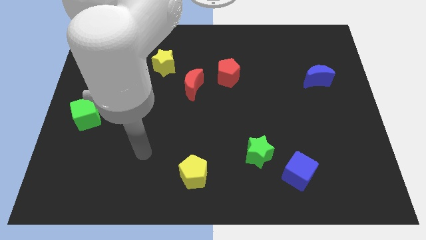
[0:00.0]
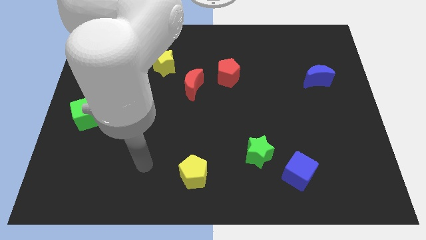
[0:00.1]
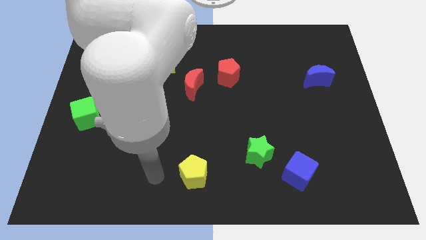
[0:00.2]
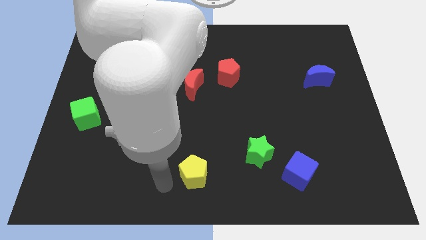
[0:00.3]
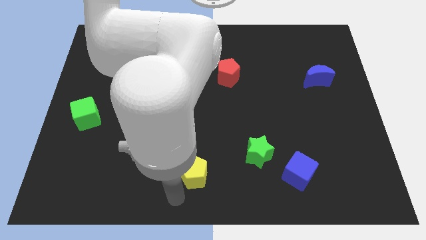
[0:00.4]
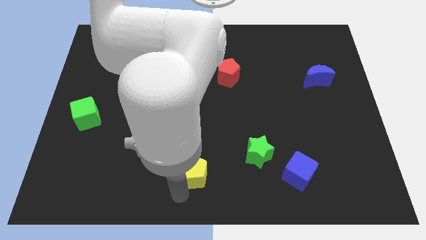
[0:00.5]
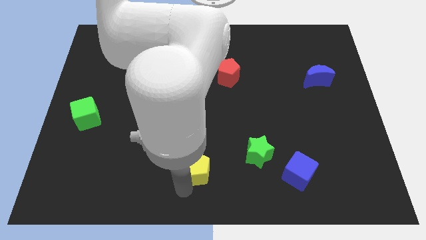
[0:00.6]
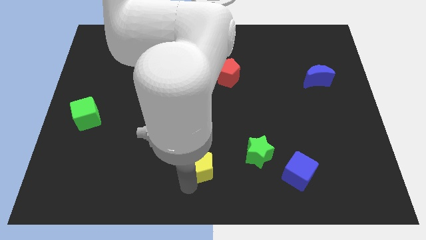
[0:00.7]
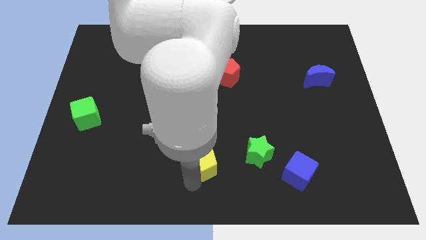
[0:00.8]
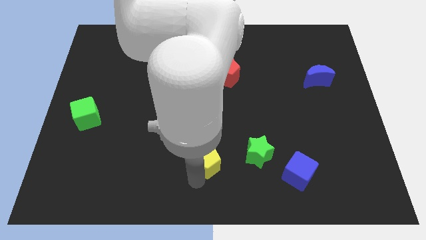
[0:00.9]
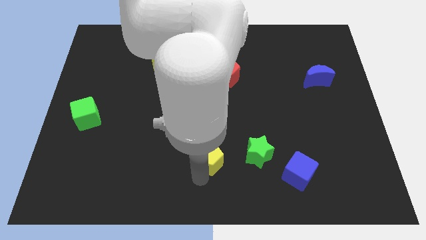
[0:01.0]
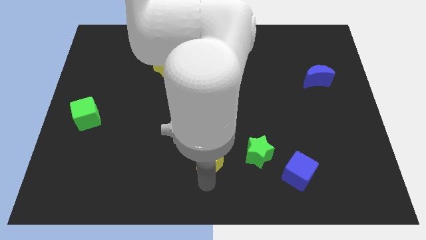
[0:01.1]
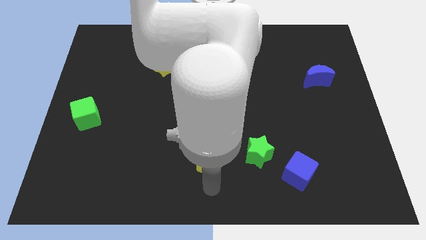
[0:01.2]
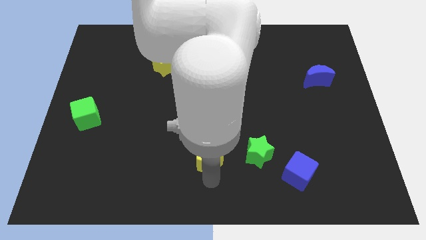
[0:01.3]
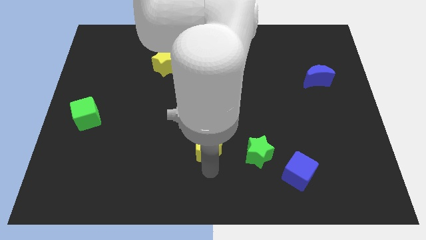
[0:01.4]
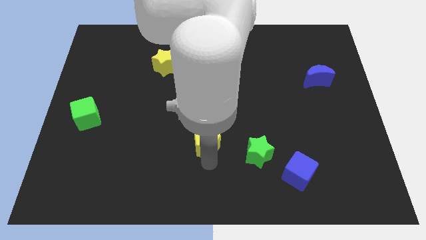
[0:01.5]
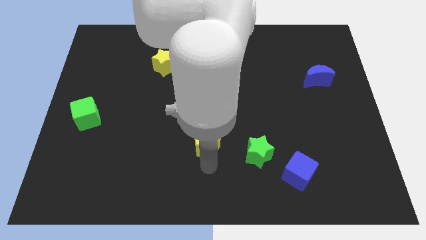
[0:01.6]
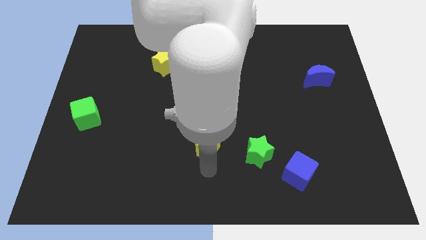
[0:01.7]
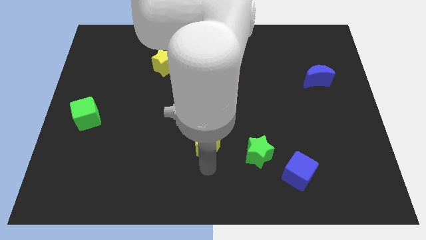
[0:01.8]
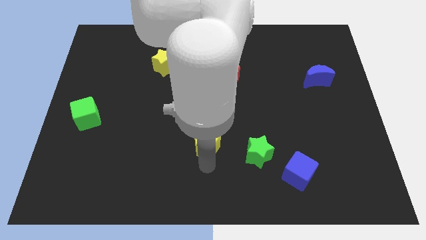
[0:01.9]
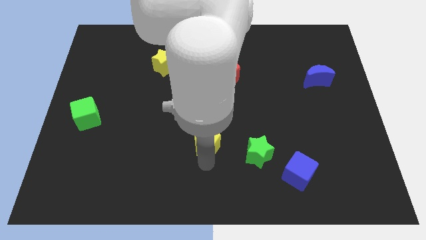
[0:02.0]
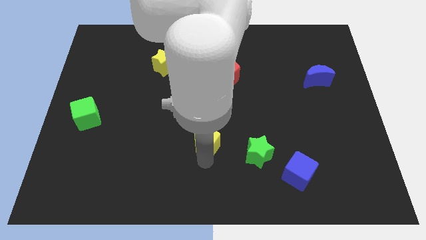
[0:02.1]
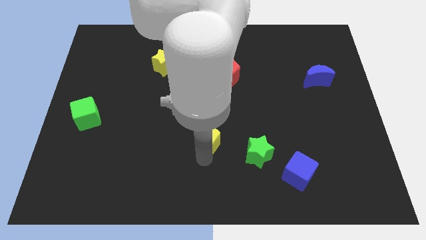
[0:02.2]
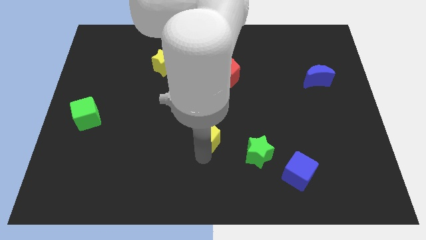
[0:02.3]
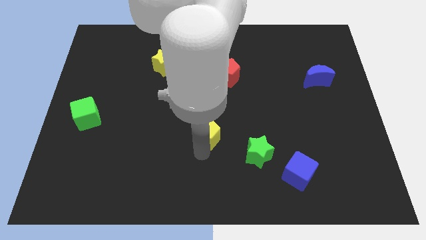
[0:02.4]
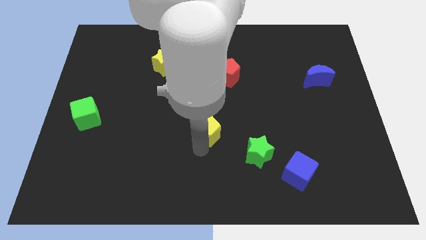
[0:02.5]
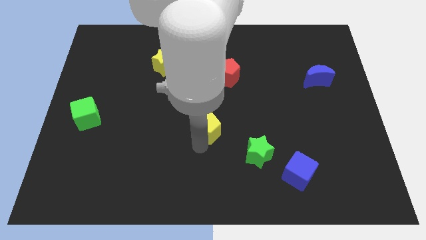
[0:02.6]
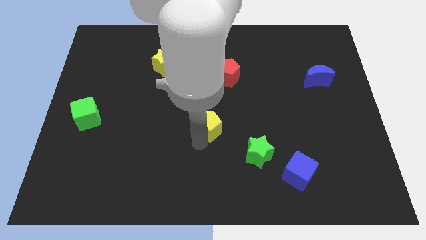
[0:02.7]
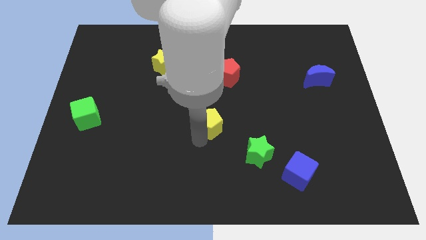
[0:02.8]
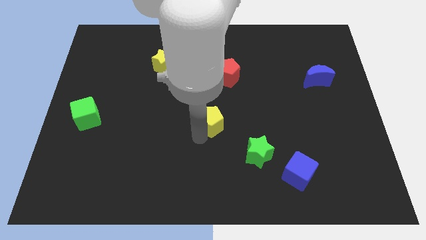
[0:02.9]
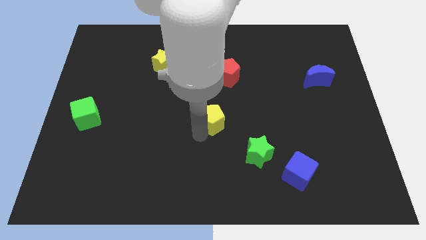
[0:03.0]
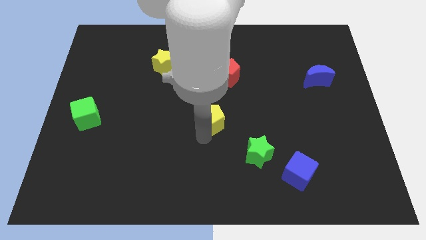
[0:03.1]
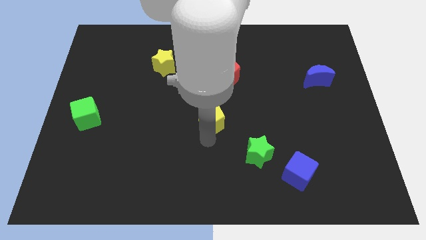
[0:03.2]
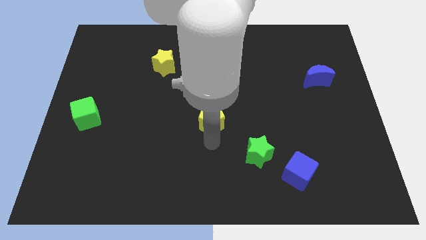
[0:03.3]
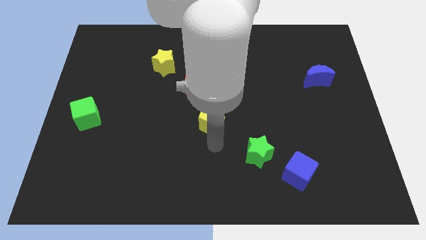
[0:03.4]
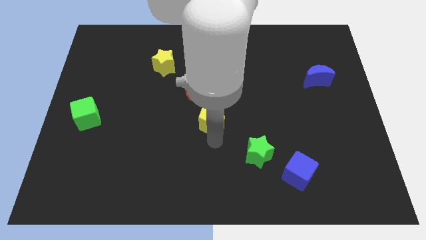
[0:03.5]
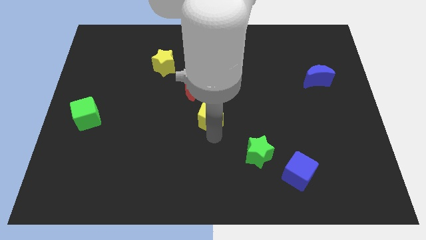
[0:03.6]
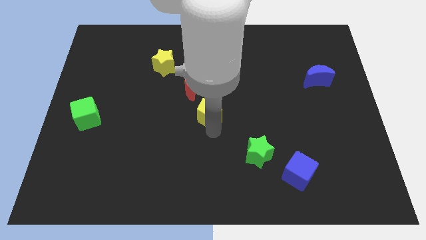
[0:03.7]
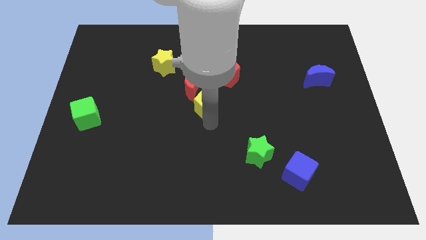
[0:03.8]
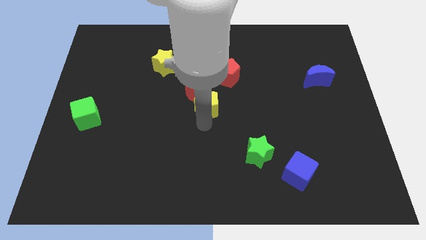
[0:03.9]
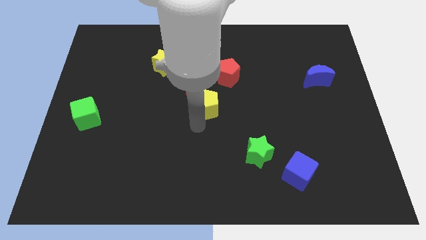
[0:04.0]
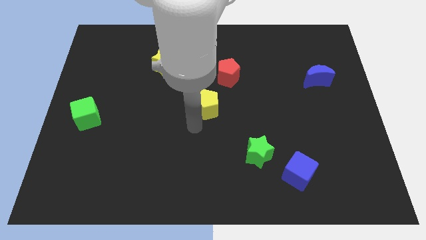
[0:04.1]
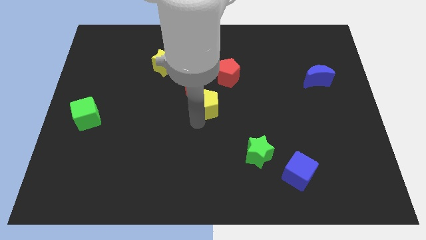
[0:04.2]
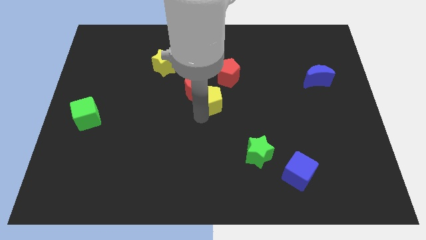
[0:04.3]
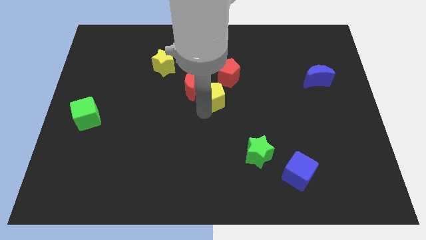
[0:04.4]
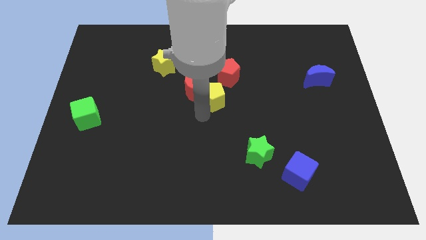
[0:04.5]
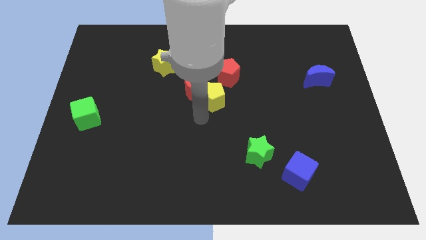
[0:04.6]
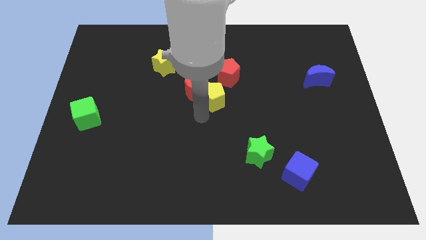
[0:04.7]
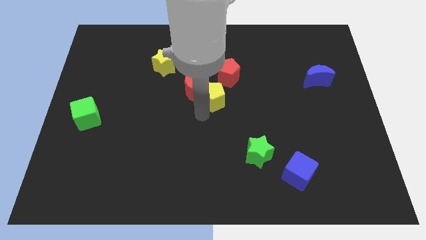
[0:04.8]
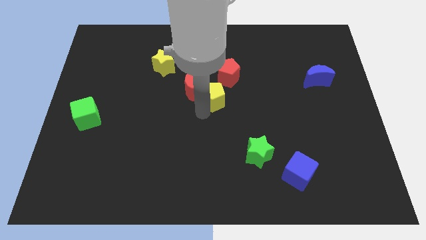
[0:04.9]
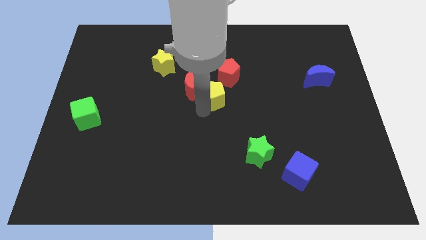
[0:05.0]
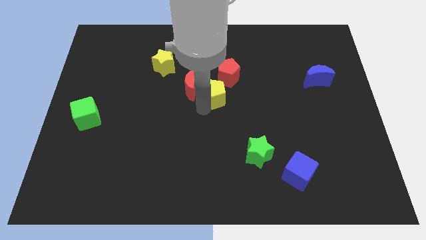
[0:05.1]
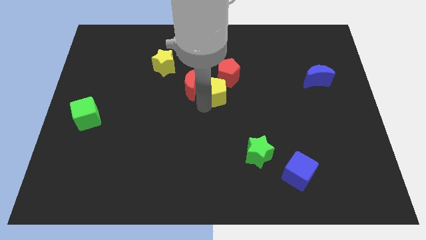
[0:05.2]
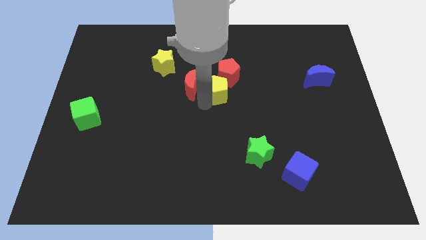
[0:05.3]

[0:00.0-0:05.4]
push the yellow pentagon to the red pentagon

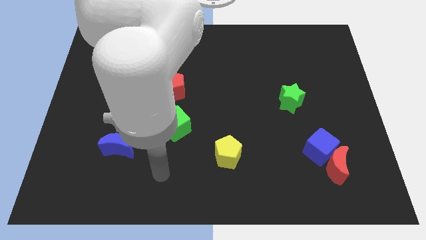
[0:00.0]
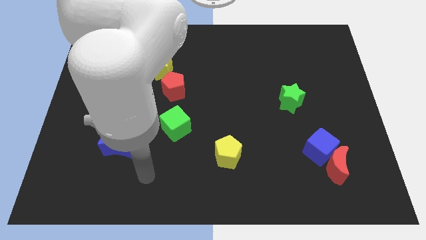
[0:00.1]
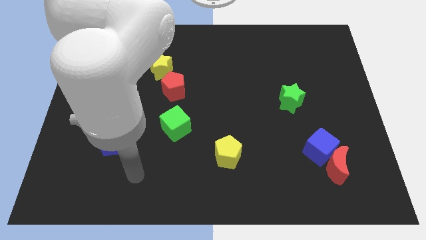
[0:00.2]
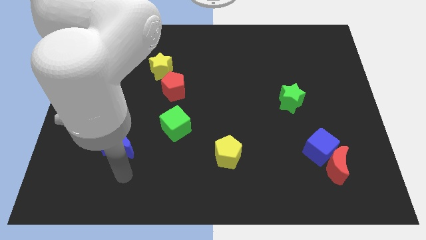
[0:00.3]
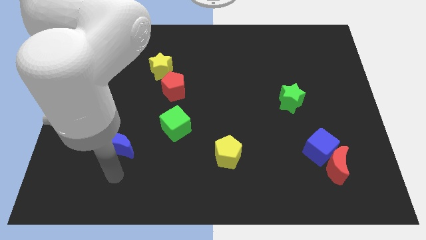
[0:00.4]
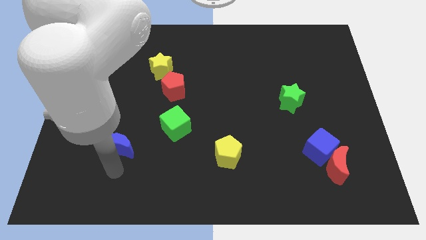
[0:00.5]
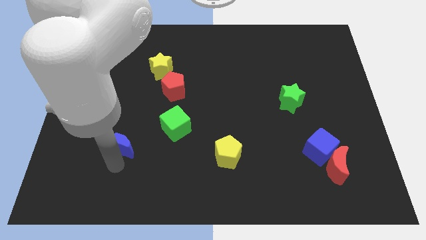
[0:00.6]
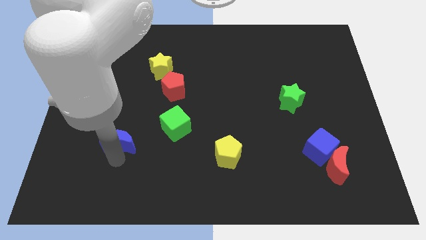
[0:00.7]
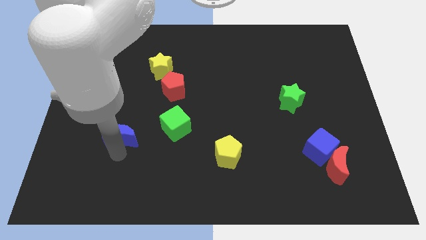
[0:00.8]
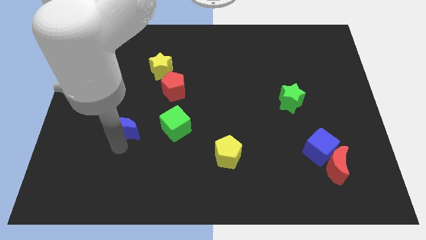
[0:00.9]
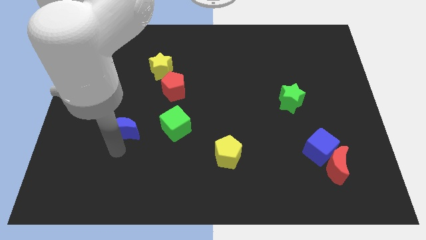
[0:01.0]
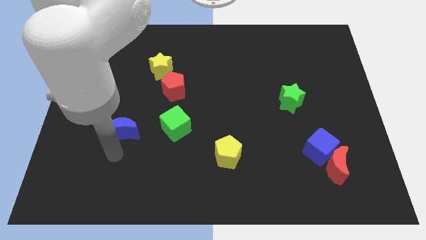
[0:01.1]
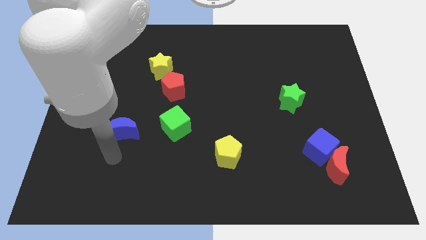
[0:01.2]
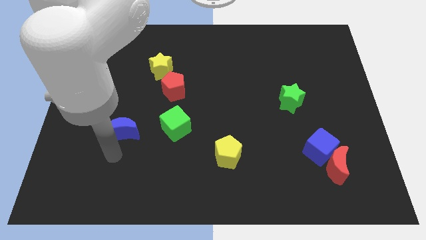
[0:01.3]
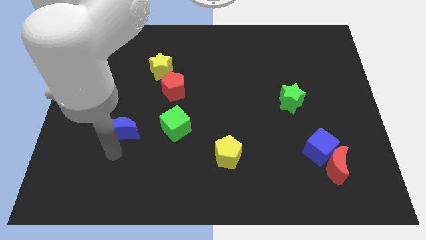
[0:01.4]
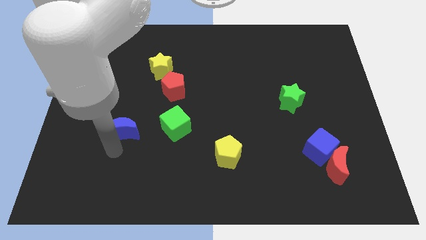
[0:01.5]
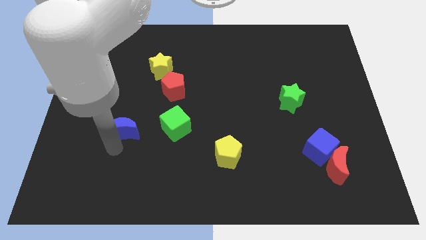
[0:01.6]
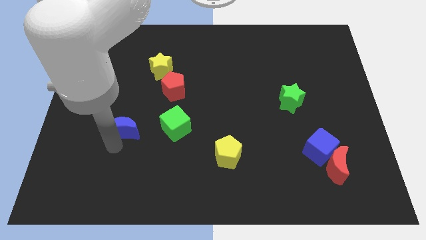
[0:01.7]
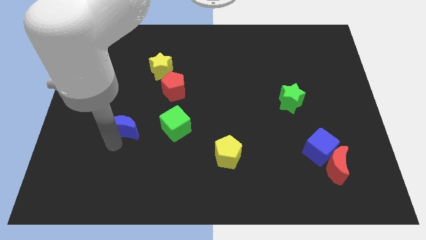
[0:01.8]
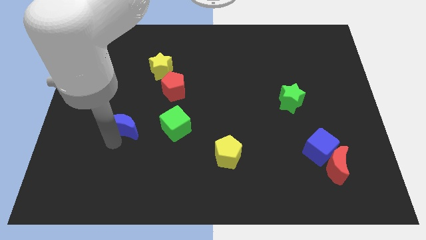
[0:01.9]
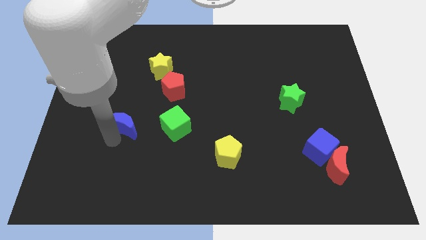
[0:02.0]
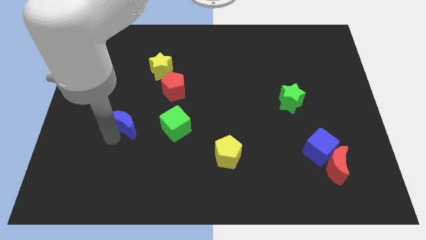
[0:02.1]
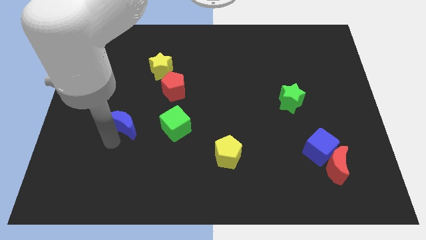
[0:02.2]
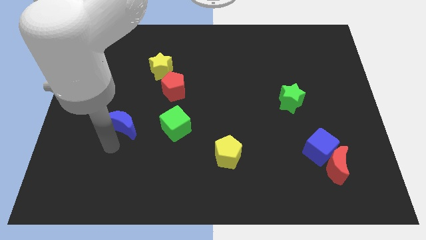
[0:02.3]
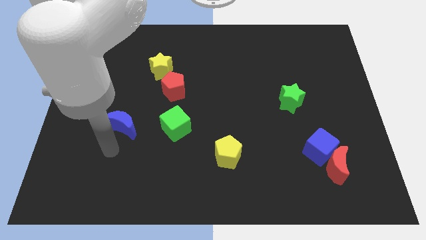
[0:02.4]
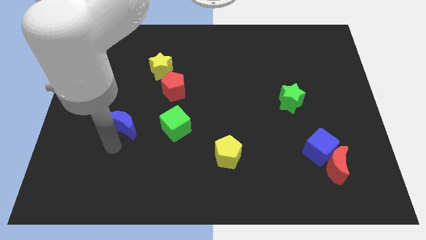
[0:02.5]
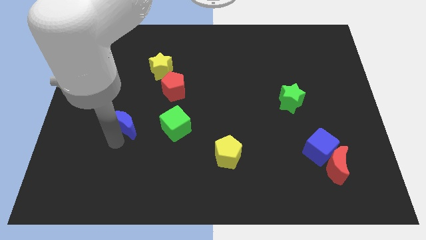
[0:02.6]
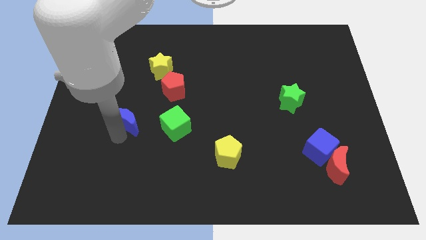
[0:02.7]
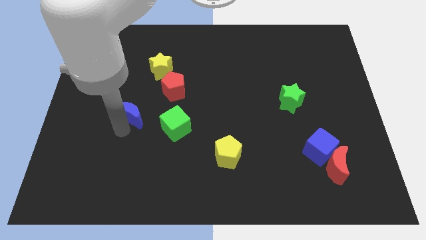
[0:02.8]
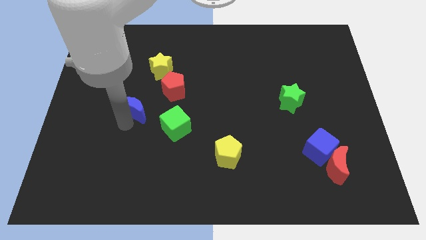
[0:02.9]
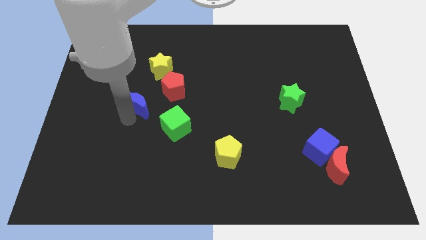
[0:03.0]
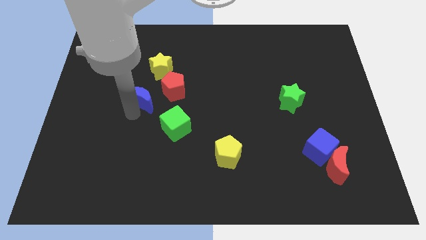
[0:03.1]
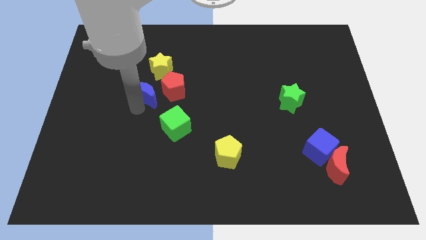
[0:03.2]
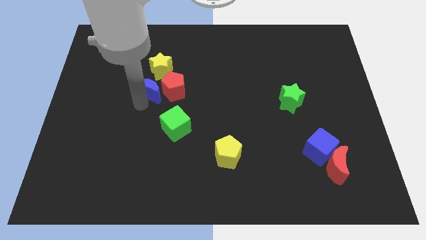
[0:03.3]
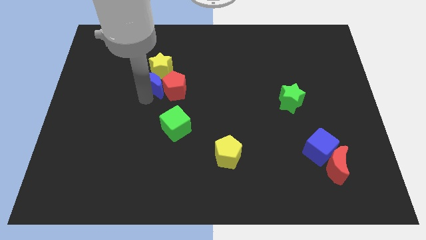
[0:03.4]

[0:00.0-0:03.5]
put the blue moon to the yellow star
